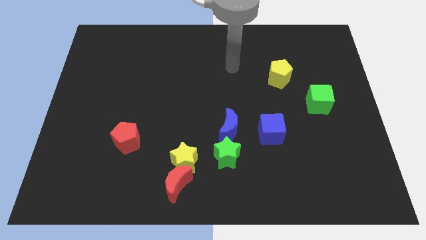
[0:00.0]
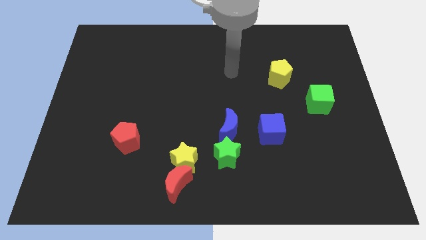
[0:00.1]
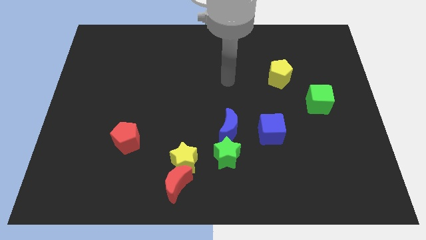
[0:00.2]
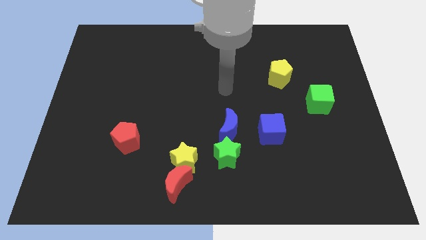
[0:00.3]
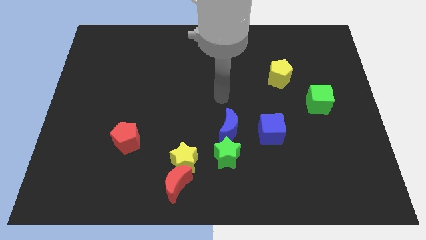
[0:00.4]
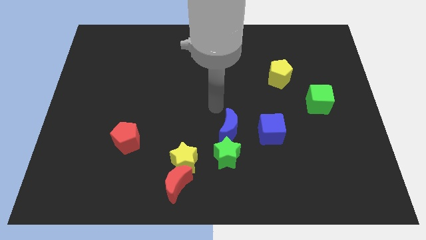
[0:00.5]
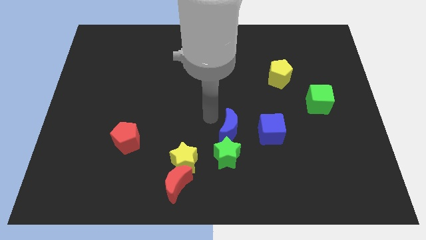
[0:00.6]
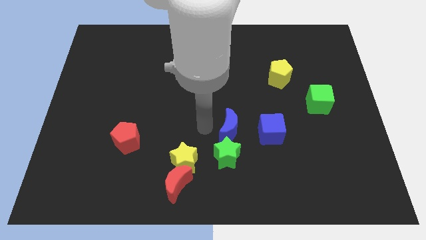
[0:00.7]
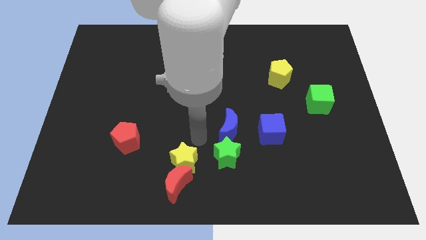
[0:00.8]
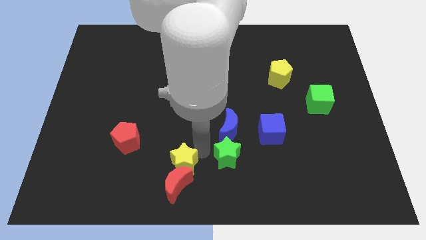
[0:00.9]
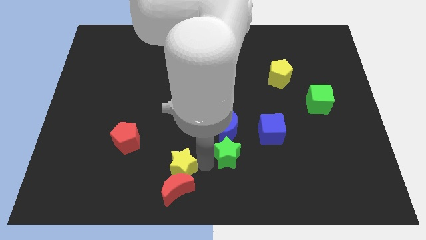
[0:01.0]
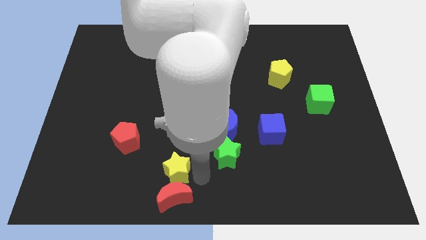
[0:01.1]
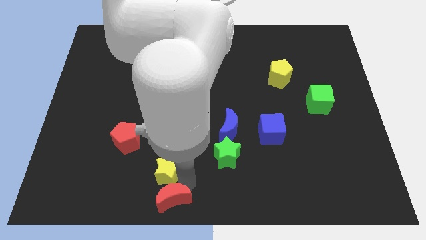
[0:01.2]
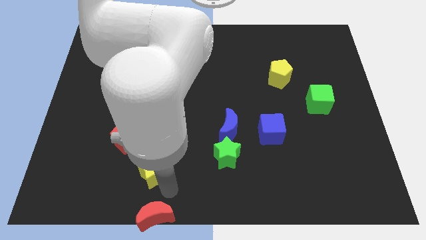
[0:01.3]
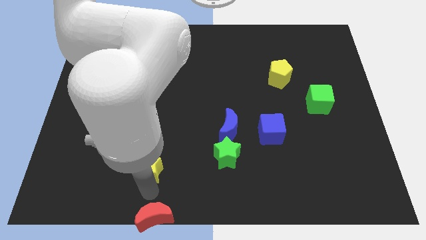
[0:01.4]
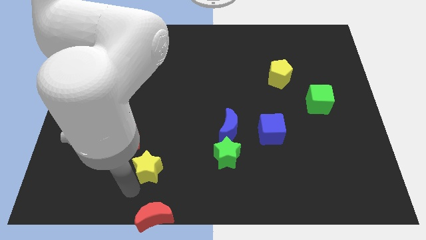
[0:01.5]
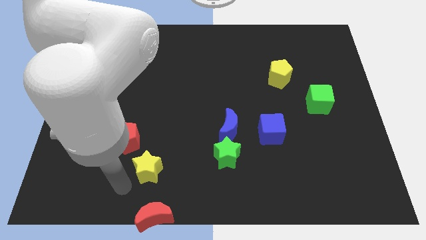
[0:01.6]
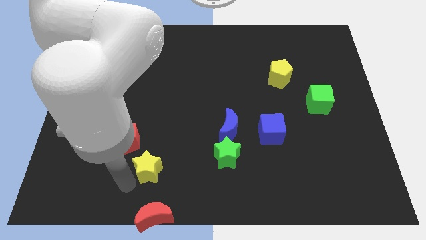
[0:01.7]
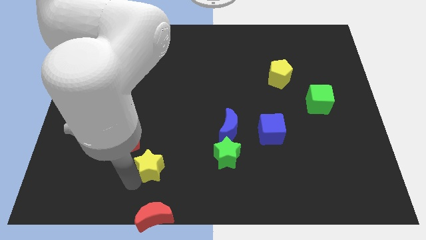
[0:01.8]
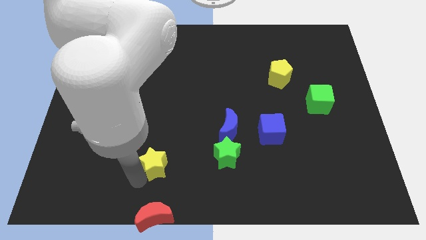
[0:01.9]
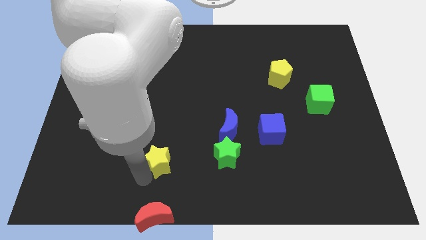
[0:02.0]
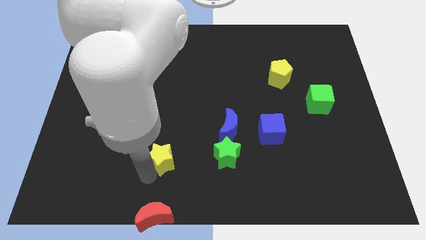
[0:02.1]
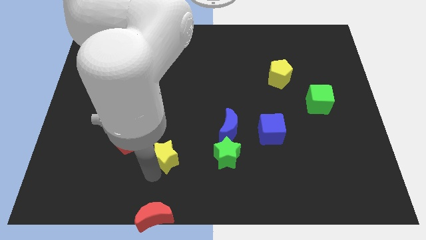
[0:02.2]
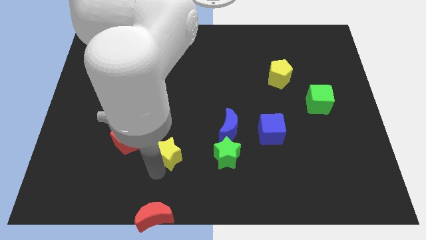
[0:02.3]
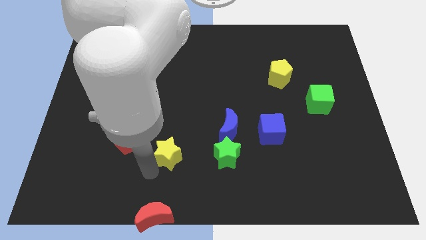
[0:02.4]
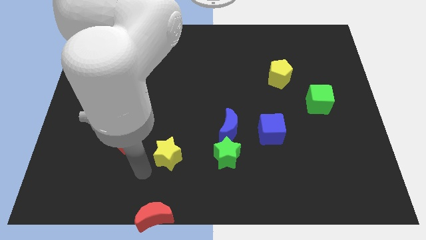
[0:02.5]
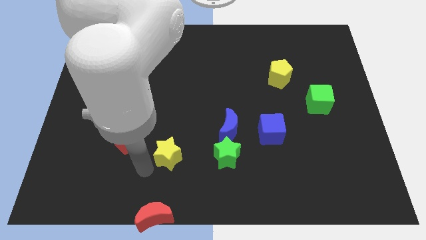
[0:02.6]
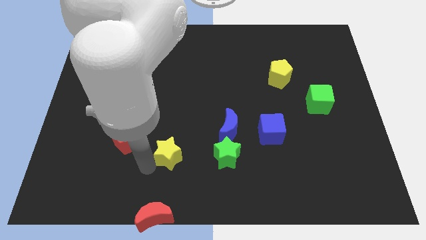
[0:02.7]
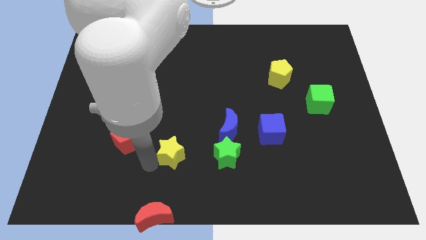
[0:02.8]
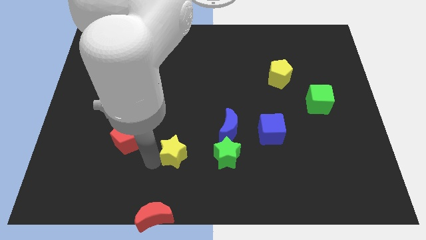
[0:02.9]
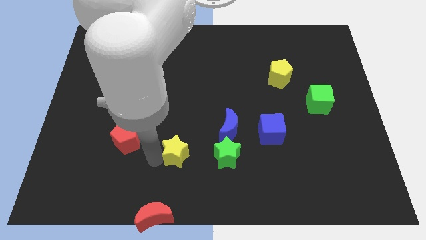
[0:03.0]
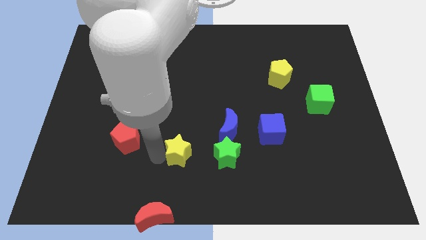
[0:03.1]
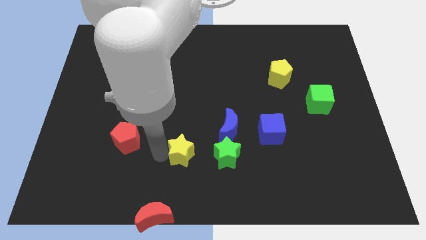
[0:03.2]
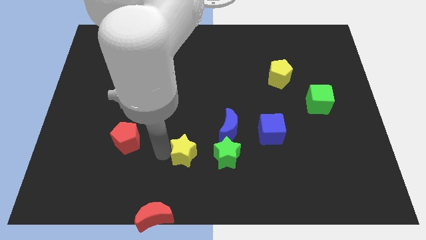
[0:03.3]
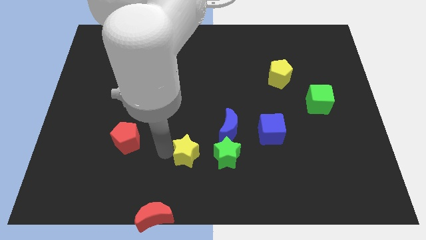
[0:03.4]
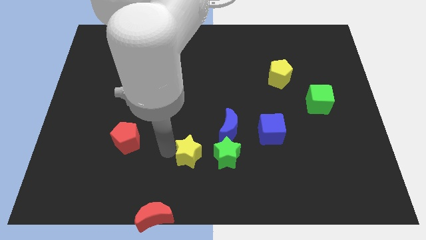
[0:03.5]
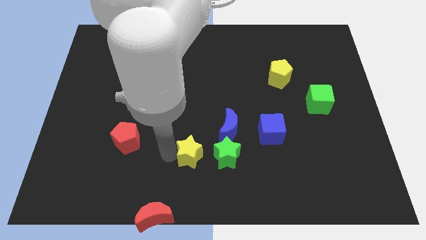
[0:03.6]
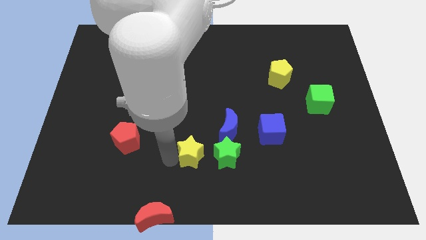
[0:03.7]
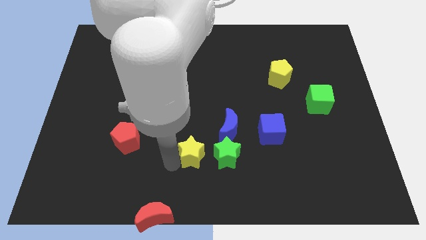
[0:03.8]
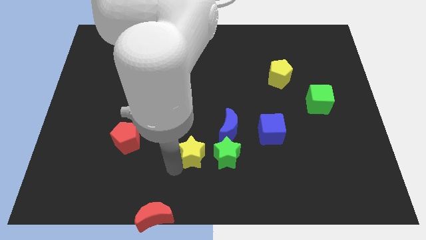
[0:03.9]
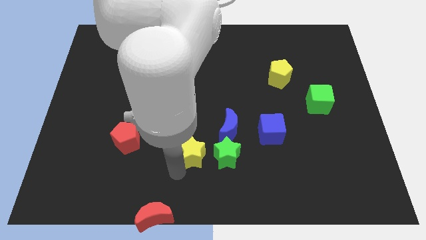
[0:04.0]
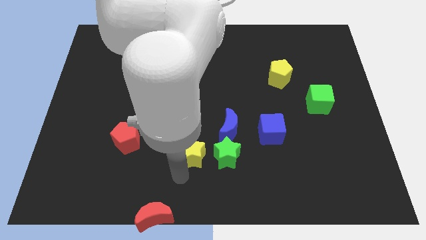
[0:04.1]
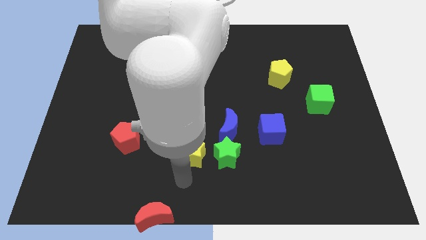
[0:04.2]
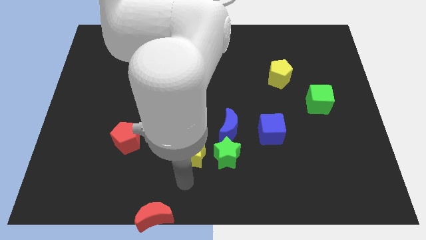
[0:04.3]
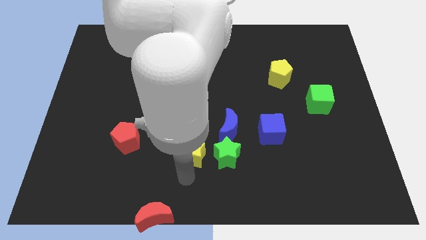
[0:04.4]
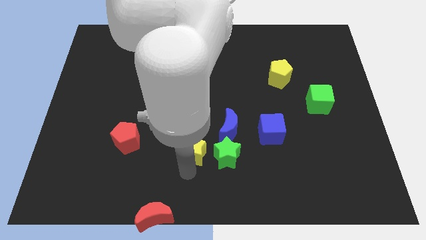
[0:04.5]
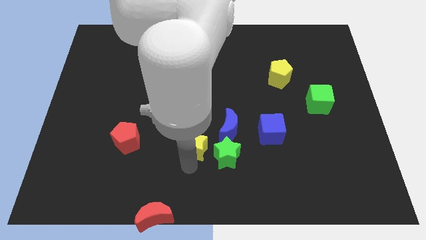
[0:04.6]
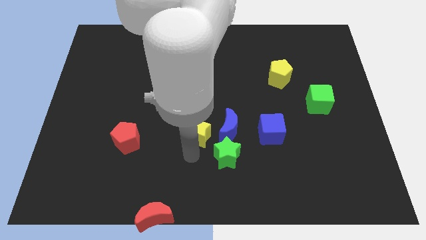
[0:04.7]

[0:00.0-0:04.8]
push the yellow star to the center of the board

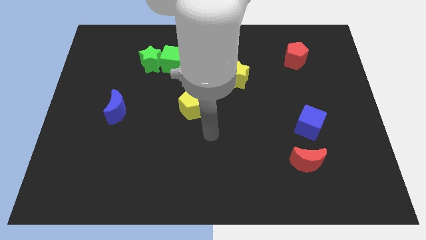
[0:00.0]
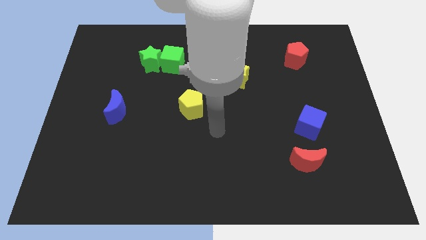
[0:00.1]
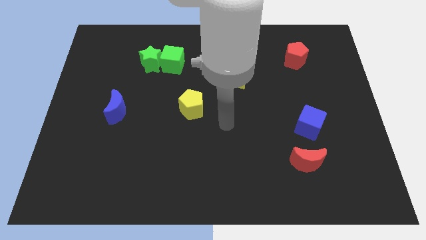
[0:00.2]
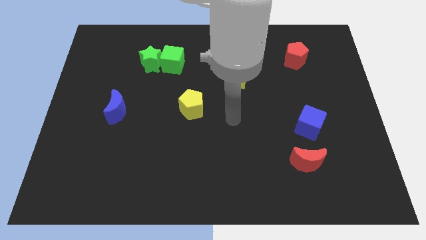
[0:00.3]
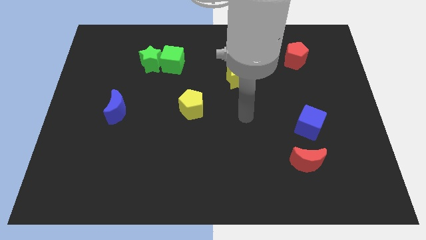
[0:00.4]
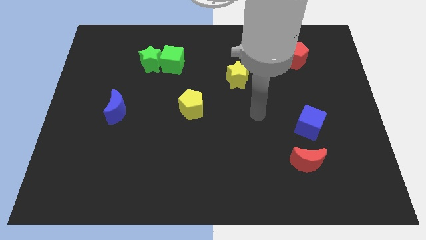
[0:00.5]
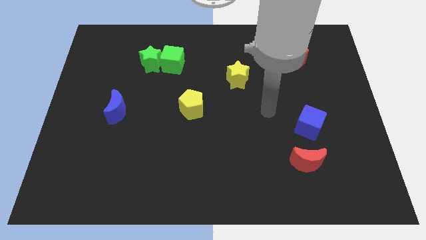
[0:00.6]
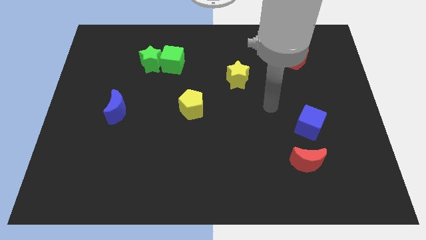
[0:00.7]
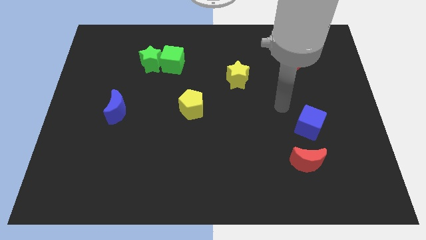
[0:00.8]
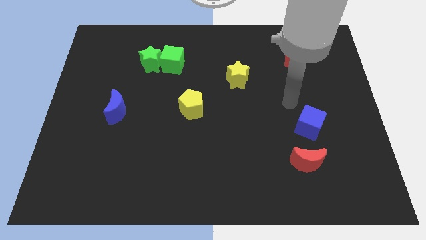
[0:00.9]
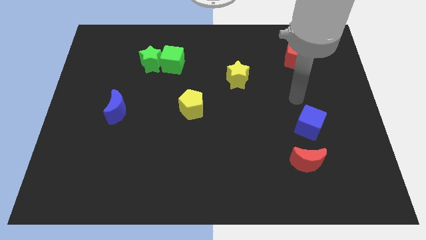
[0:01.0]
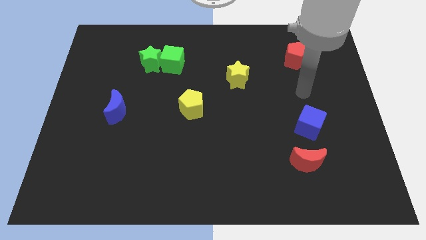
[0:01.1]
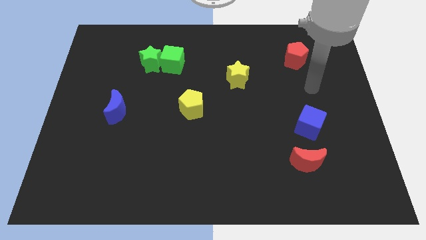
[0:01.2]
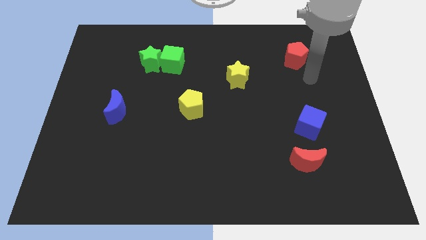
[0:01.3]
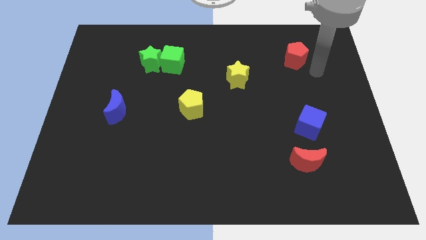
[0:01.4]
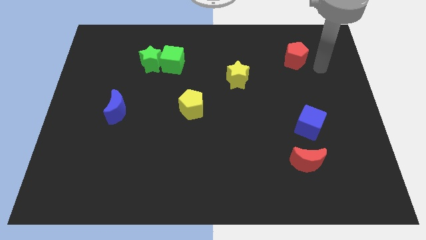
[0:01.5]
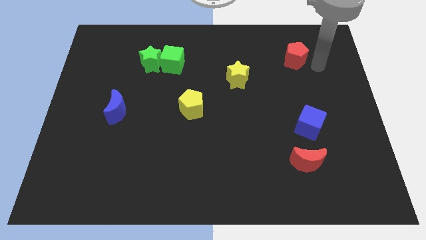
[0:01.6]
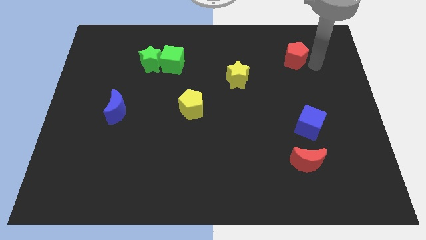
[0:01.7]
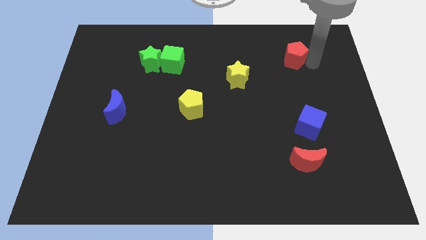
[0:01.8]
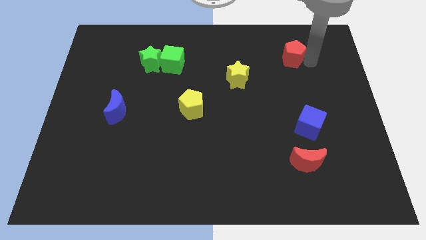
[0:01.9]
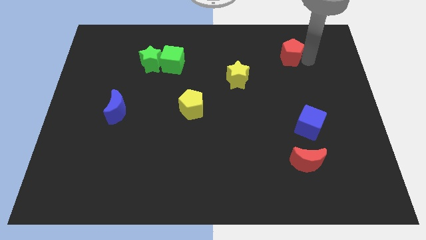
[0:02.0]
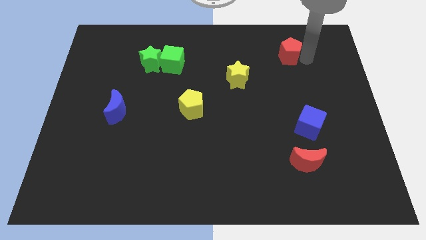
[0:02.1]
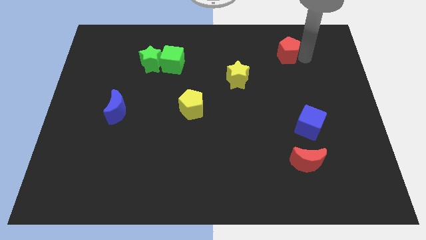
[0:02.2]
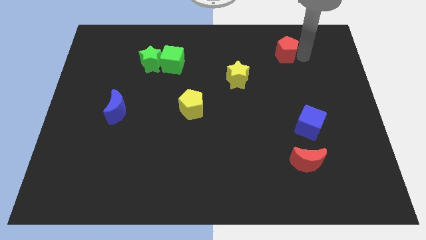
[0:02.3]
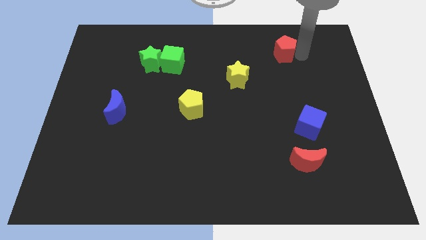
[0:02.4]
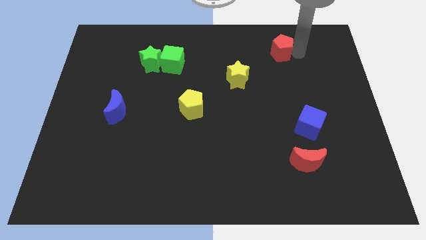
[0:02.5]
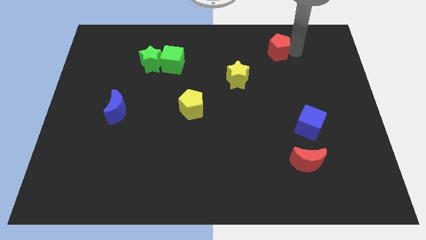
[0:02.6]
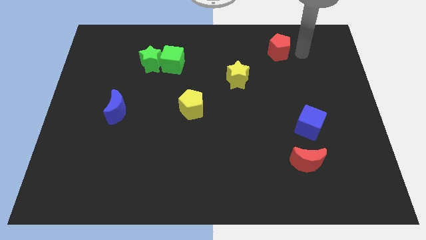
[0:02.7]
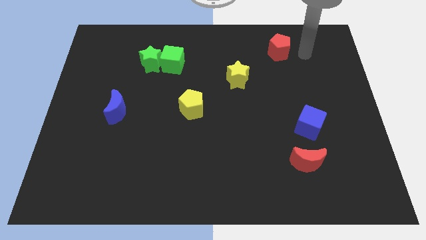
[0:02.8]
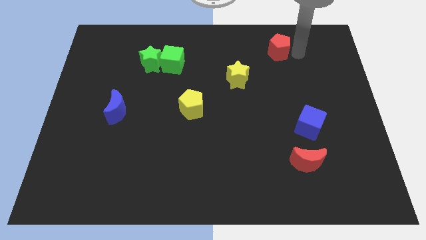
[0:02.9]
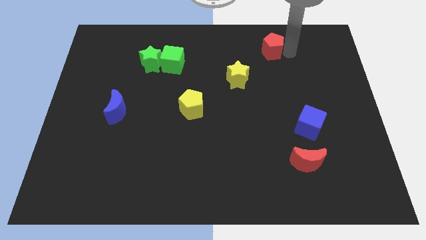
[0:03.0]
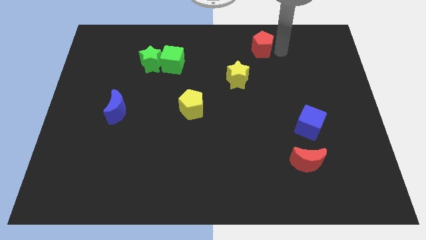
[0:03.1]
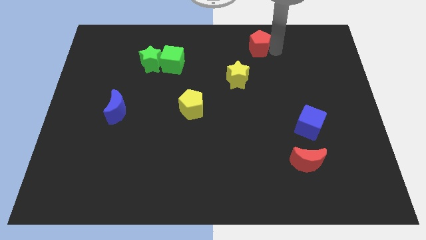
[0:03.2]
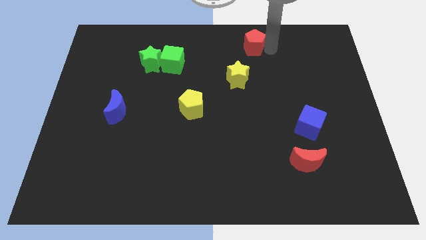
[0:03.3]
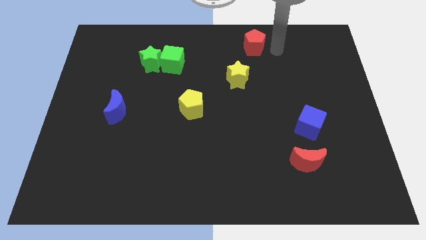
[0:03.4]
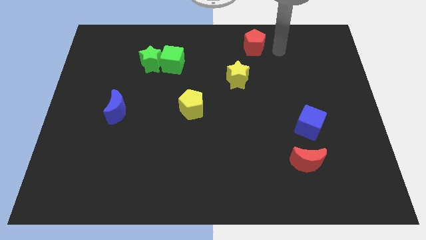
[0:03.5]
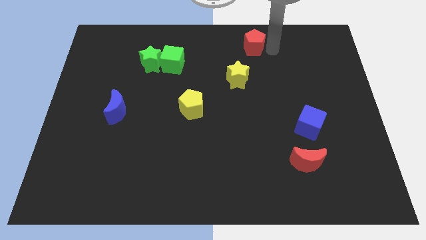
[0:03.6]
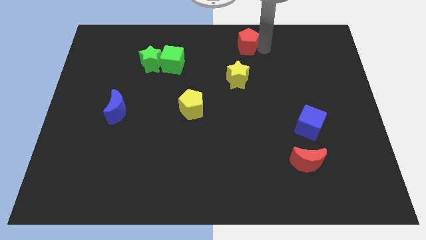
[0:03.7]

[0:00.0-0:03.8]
move the red pentagon to the top
